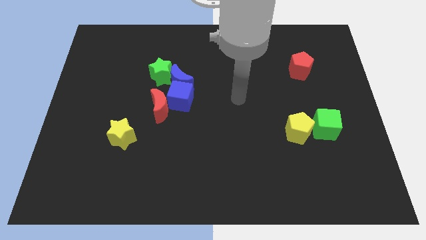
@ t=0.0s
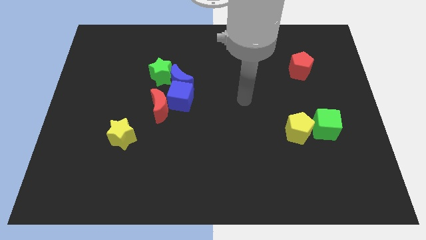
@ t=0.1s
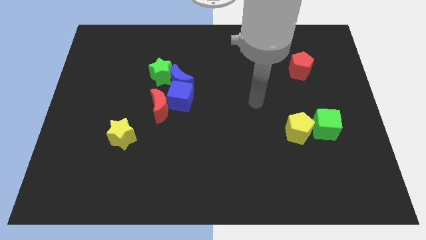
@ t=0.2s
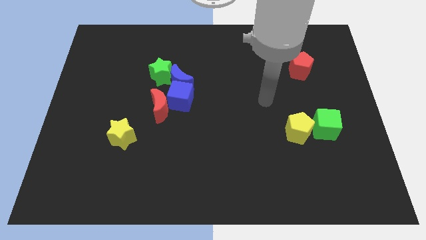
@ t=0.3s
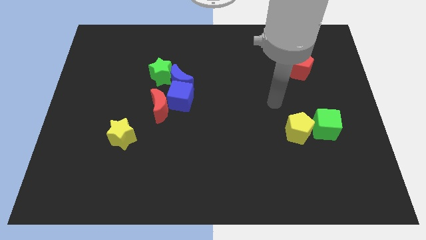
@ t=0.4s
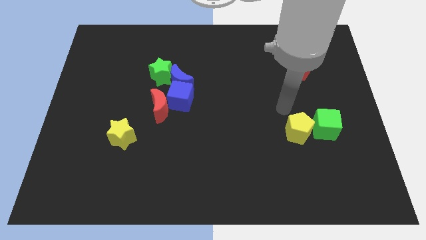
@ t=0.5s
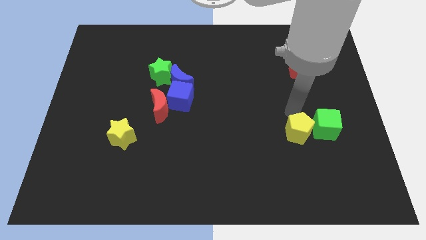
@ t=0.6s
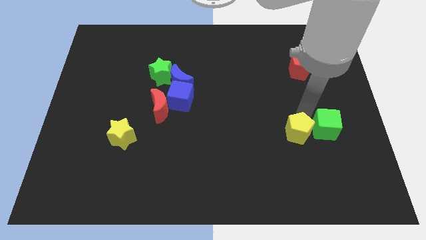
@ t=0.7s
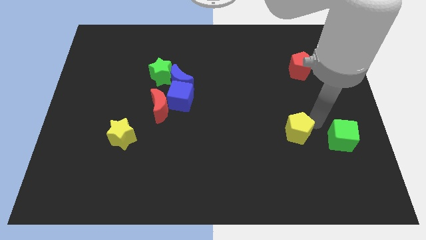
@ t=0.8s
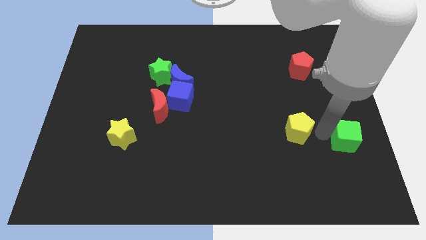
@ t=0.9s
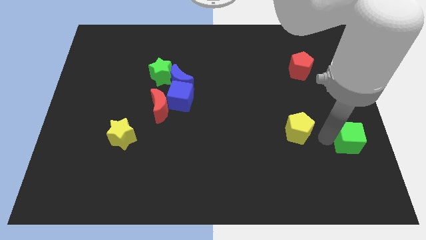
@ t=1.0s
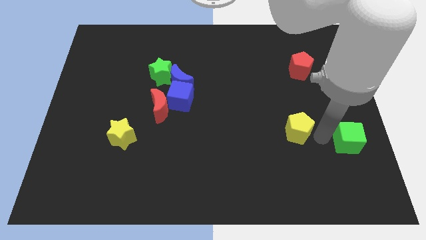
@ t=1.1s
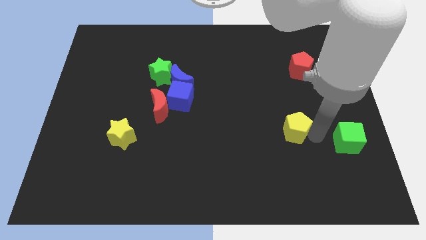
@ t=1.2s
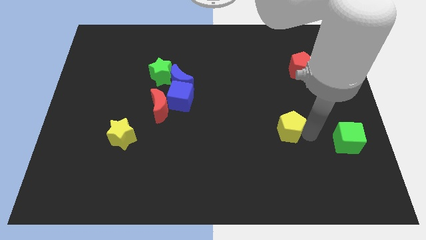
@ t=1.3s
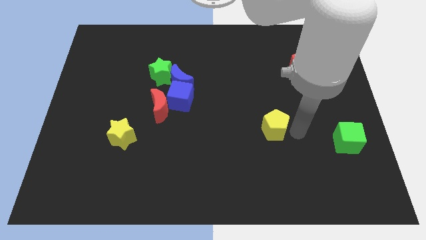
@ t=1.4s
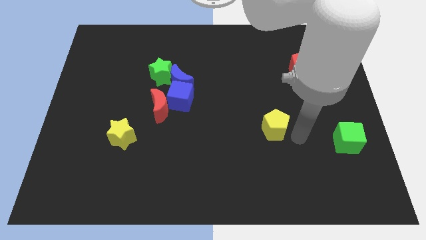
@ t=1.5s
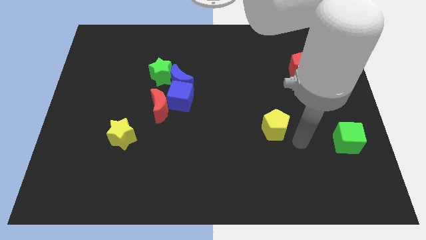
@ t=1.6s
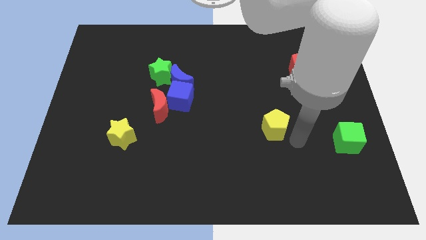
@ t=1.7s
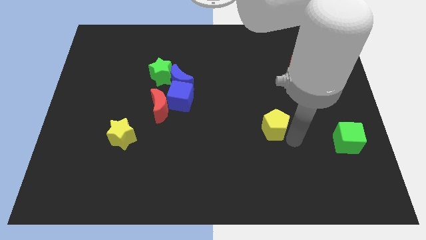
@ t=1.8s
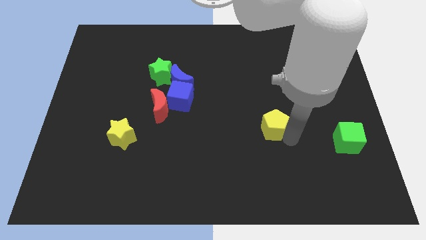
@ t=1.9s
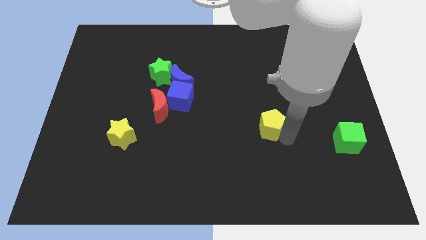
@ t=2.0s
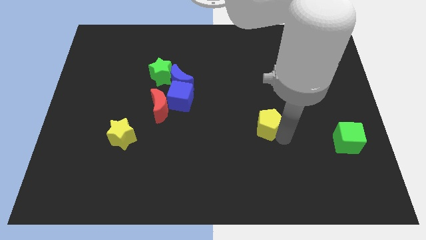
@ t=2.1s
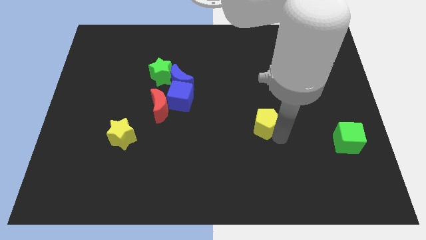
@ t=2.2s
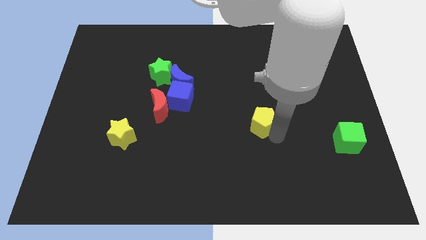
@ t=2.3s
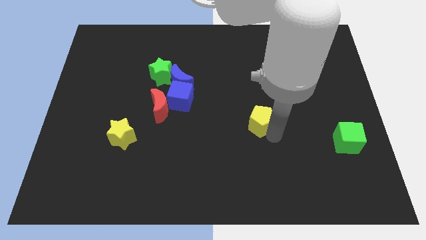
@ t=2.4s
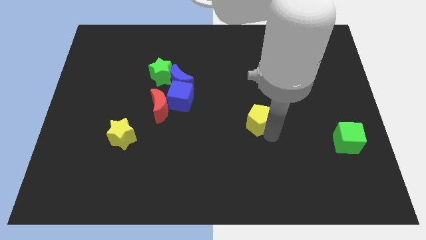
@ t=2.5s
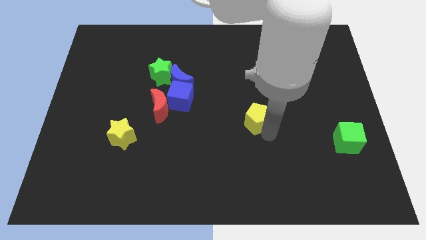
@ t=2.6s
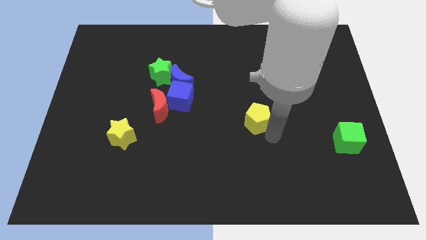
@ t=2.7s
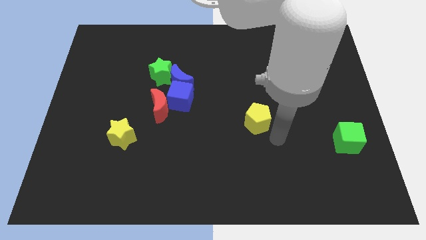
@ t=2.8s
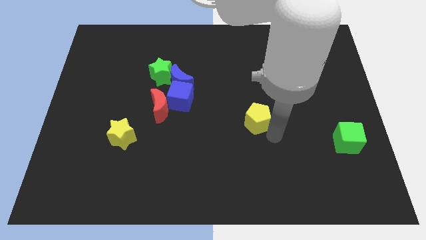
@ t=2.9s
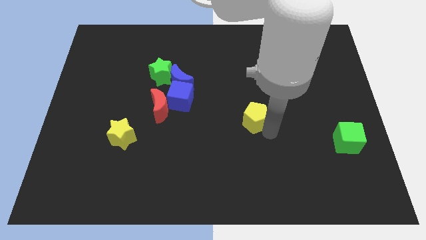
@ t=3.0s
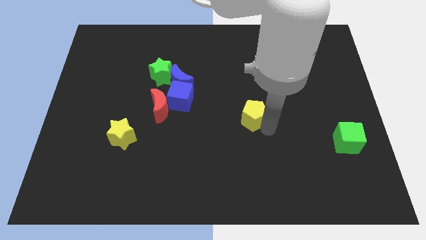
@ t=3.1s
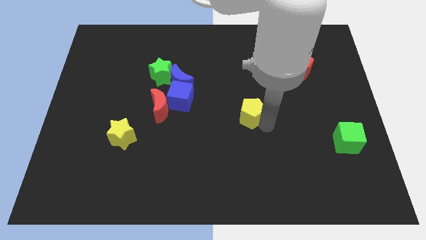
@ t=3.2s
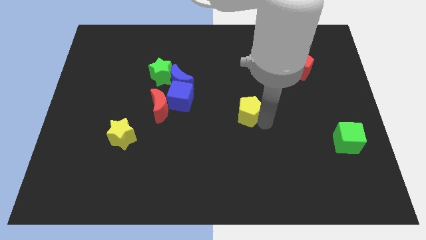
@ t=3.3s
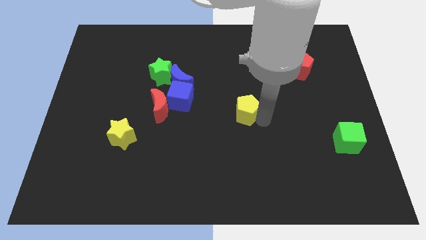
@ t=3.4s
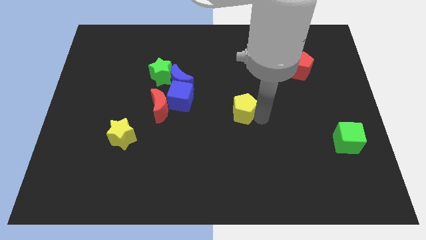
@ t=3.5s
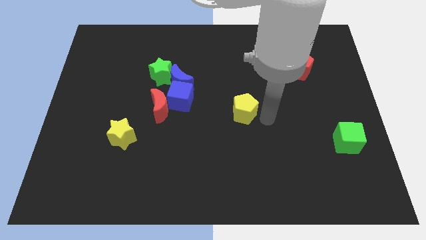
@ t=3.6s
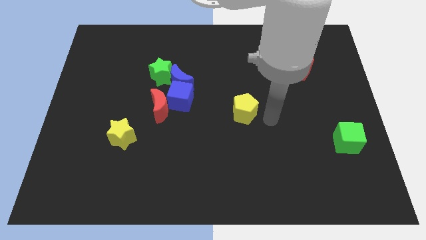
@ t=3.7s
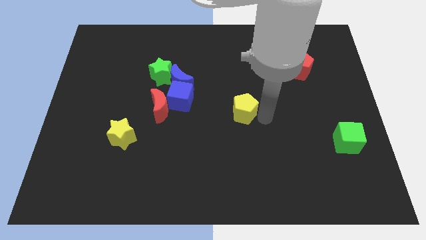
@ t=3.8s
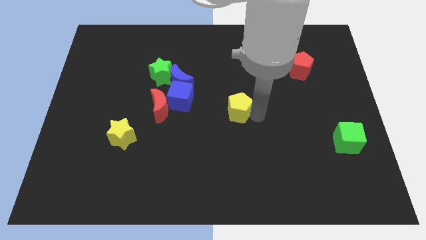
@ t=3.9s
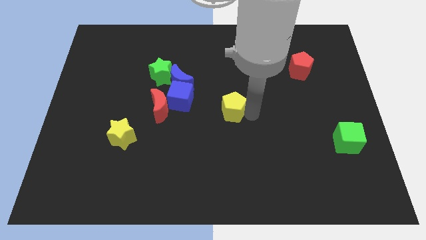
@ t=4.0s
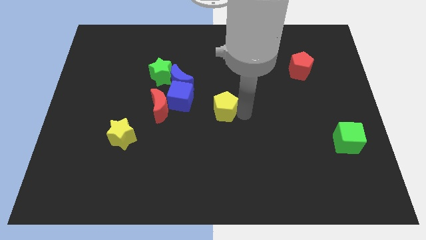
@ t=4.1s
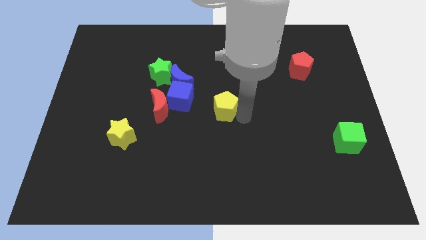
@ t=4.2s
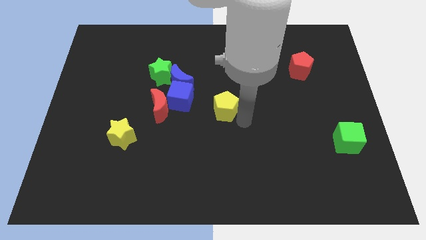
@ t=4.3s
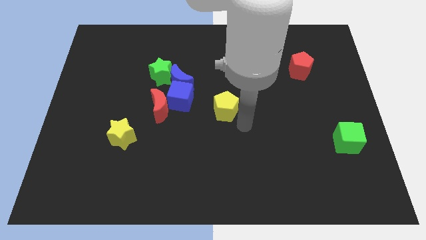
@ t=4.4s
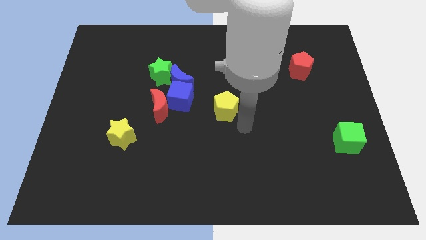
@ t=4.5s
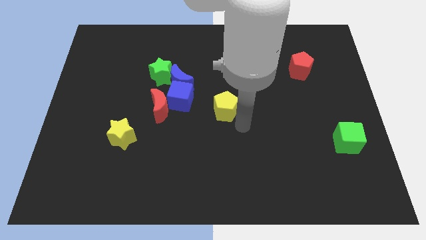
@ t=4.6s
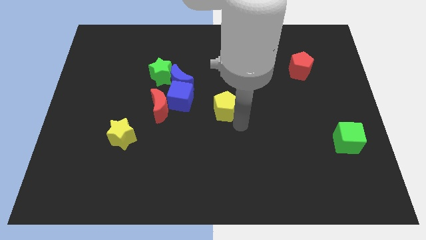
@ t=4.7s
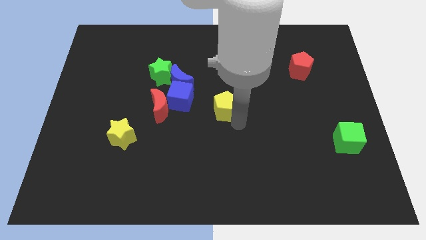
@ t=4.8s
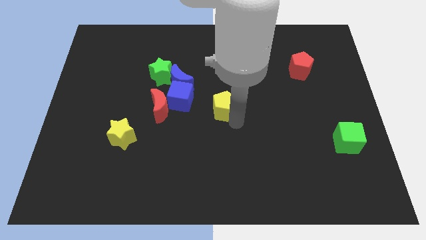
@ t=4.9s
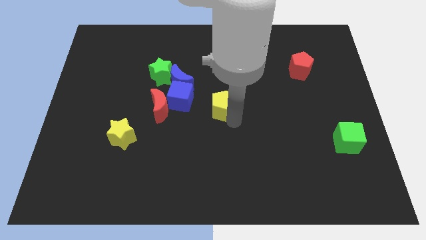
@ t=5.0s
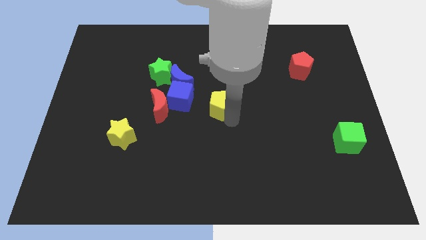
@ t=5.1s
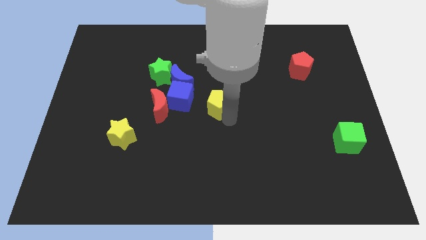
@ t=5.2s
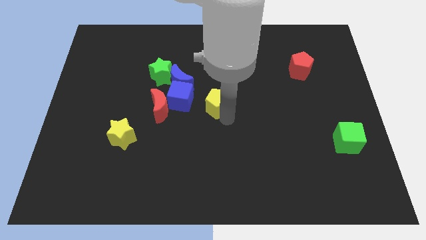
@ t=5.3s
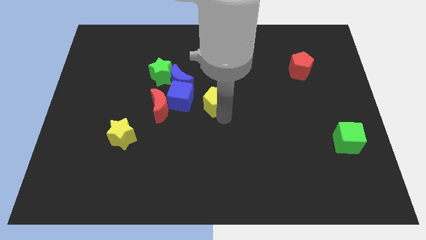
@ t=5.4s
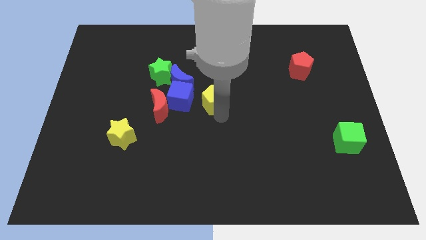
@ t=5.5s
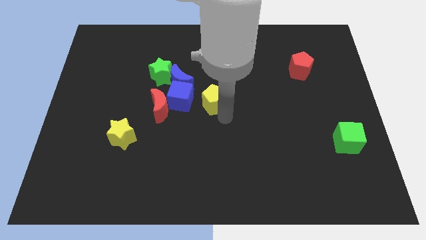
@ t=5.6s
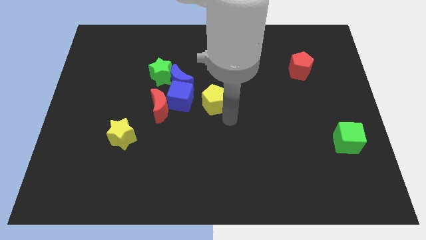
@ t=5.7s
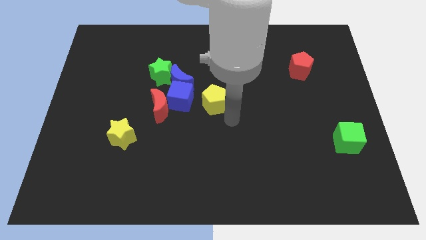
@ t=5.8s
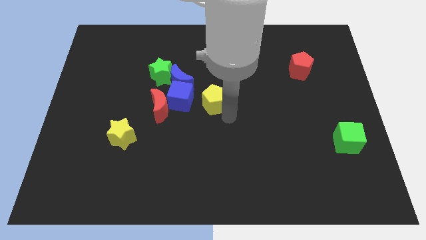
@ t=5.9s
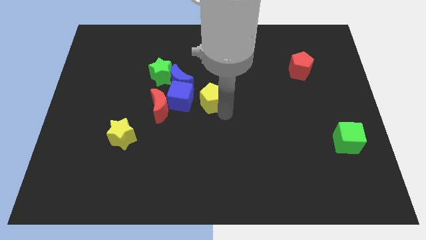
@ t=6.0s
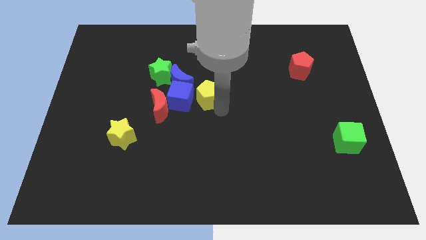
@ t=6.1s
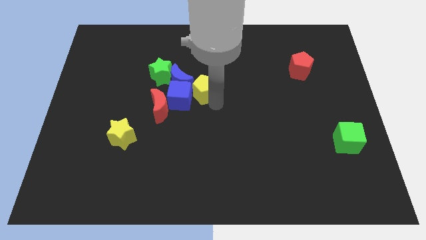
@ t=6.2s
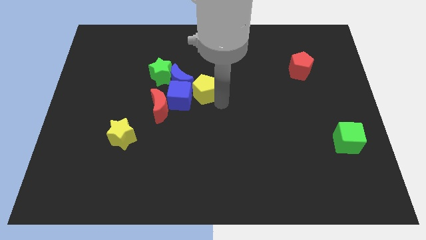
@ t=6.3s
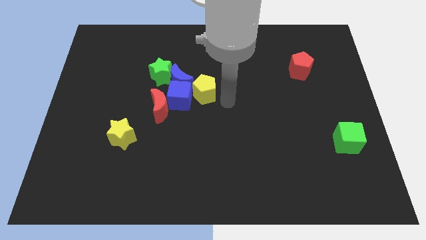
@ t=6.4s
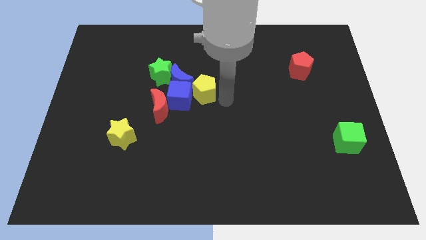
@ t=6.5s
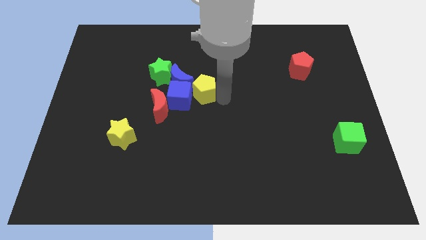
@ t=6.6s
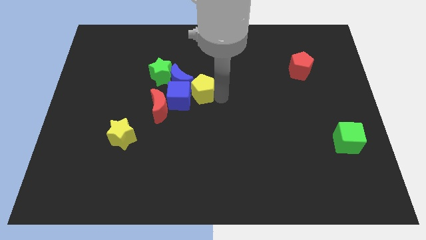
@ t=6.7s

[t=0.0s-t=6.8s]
slide the yellow pentagon next to the blue moon
